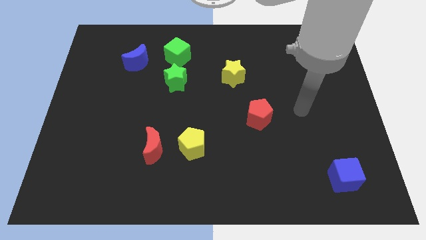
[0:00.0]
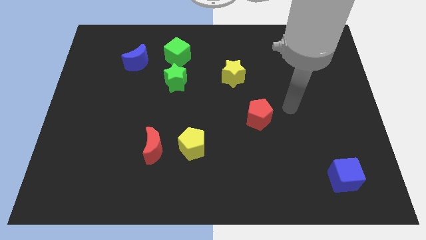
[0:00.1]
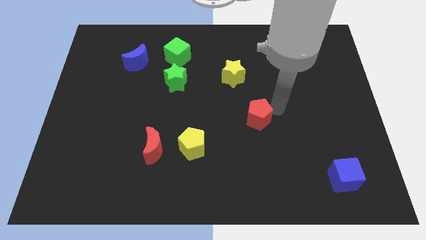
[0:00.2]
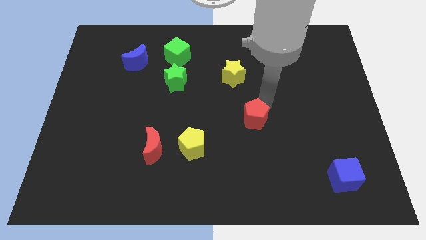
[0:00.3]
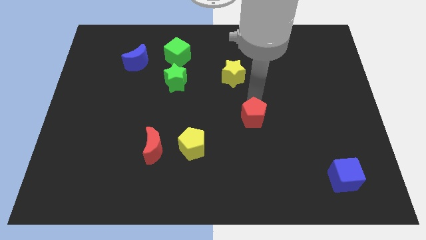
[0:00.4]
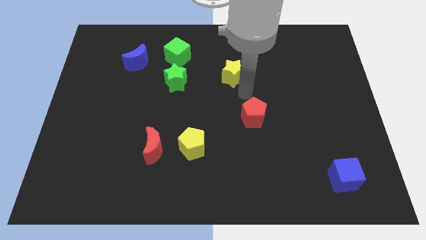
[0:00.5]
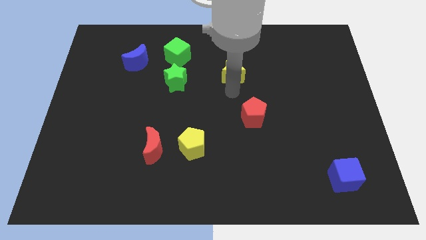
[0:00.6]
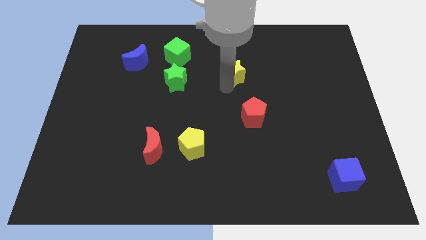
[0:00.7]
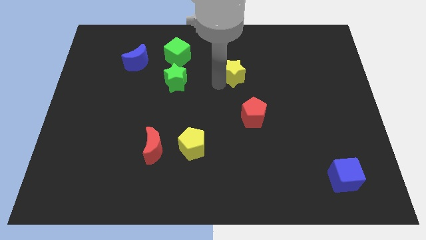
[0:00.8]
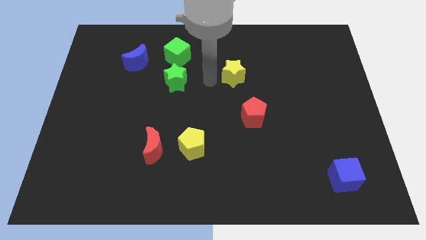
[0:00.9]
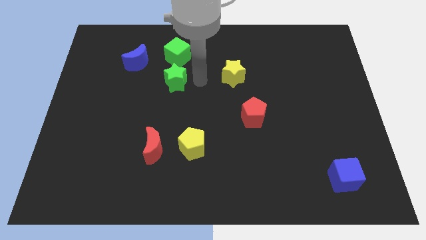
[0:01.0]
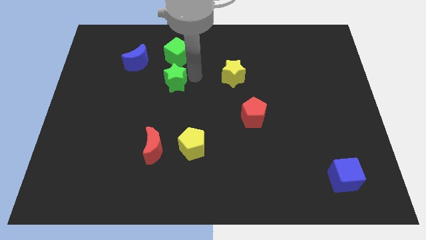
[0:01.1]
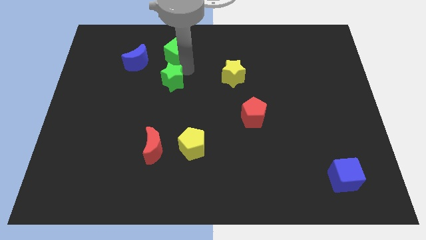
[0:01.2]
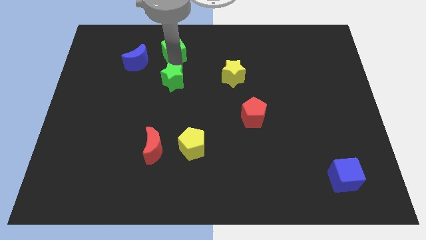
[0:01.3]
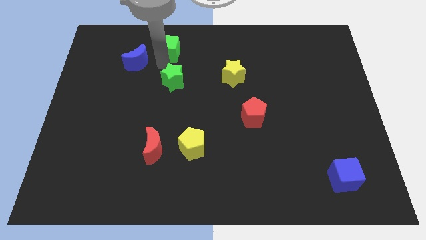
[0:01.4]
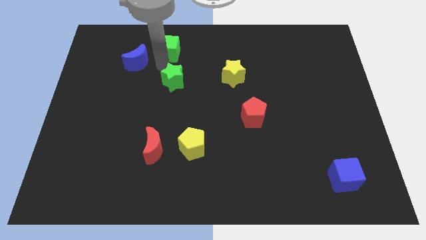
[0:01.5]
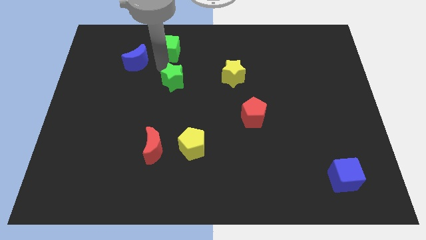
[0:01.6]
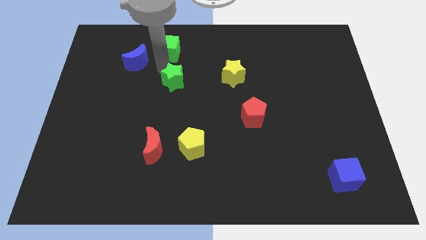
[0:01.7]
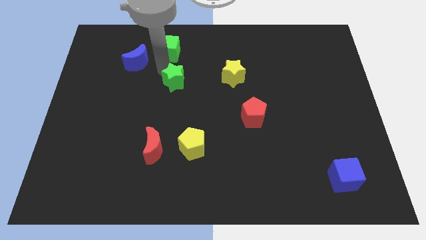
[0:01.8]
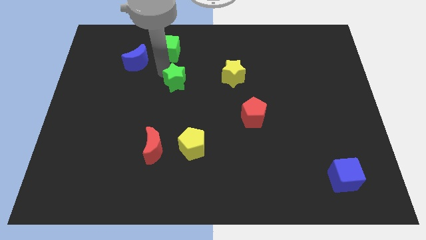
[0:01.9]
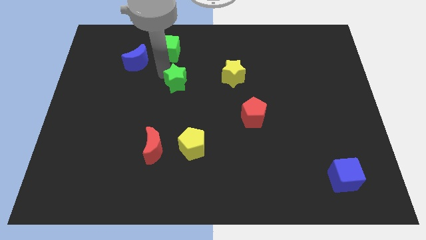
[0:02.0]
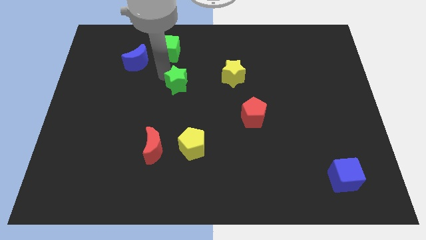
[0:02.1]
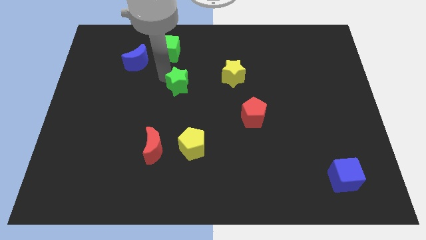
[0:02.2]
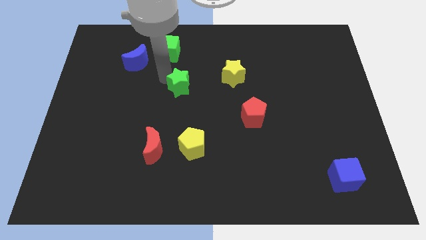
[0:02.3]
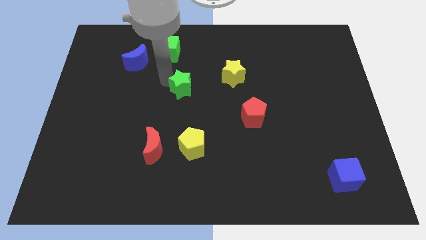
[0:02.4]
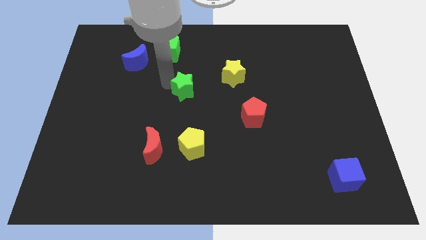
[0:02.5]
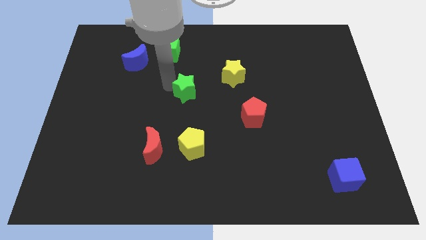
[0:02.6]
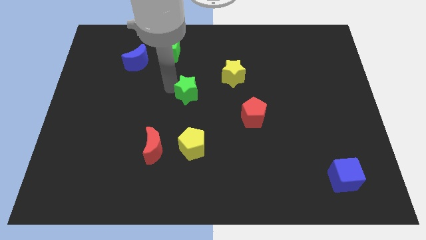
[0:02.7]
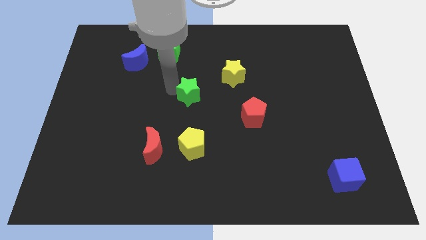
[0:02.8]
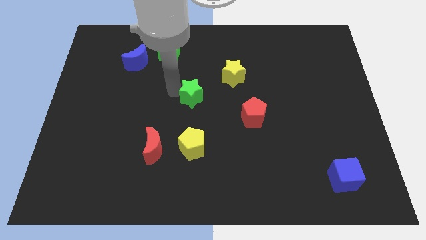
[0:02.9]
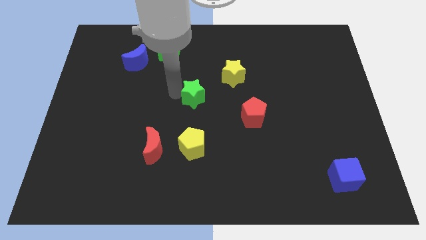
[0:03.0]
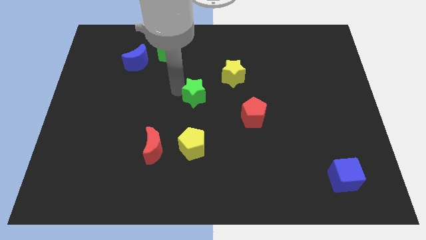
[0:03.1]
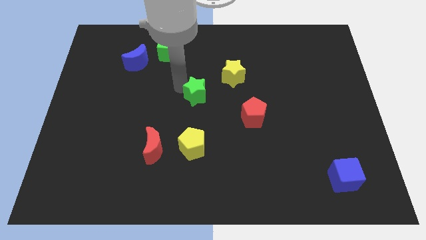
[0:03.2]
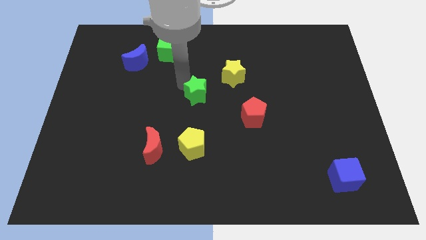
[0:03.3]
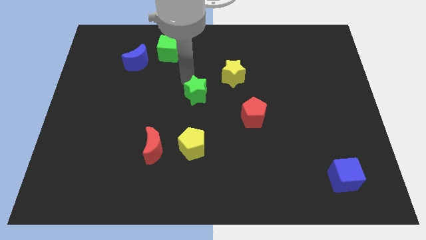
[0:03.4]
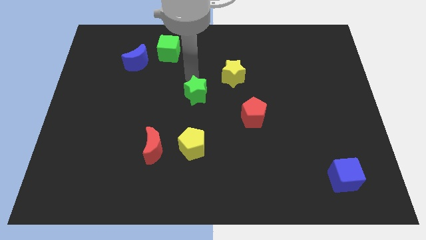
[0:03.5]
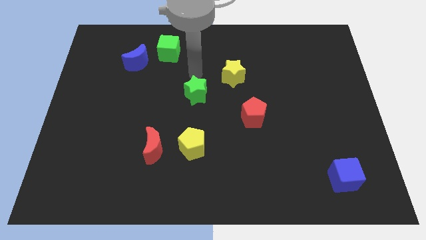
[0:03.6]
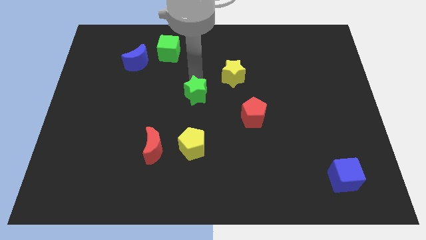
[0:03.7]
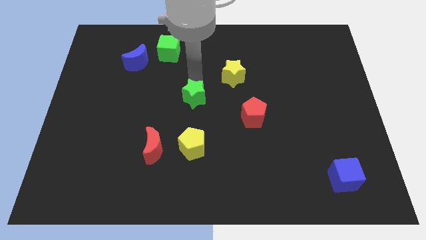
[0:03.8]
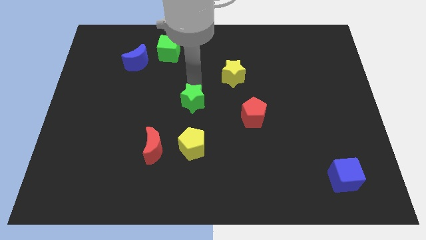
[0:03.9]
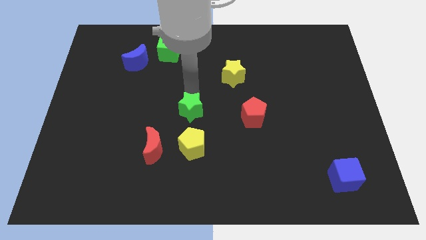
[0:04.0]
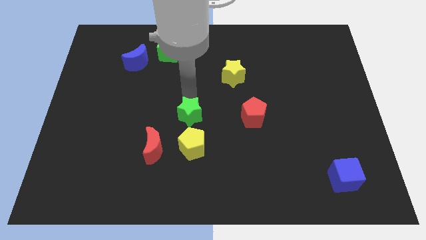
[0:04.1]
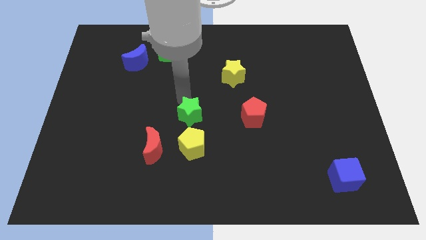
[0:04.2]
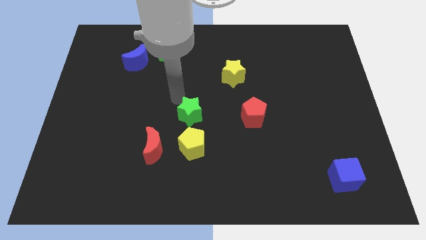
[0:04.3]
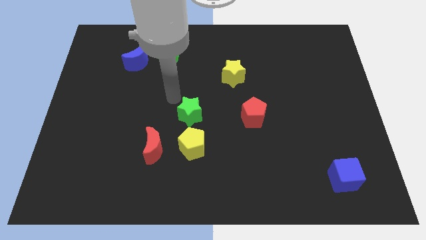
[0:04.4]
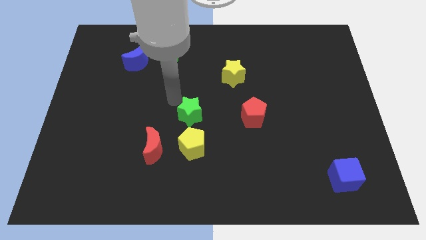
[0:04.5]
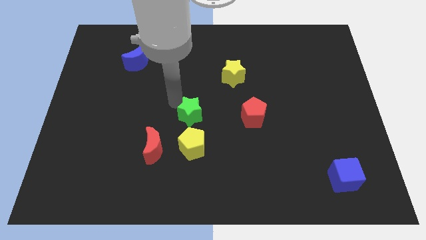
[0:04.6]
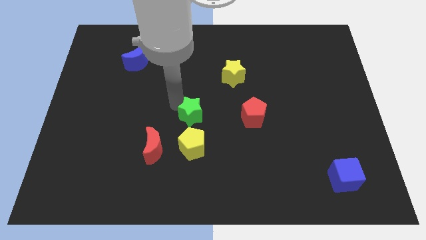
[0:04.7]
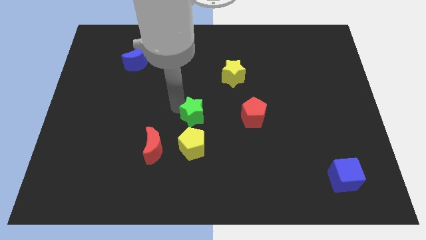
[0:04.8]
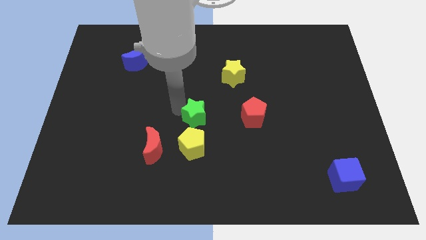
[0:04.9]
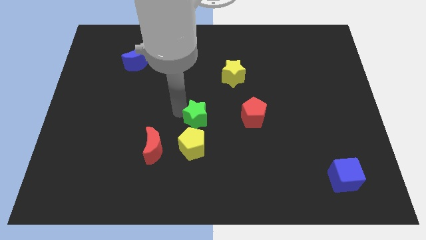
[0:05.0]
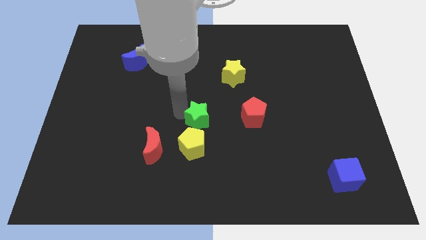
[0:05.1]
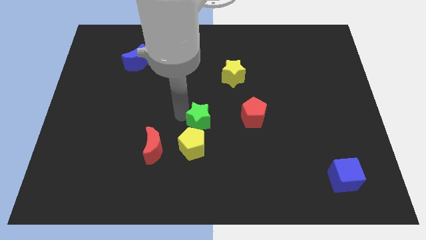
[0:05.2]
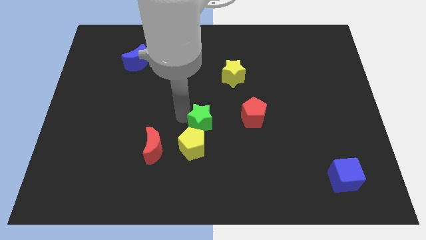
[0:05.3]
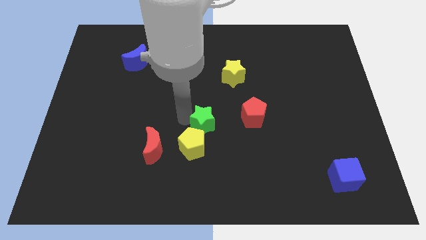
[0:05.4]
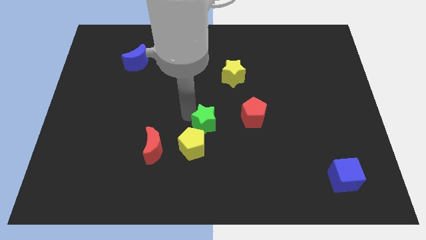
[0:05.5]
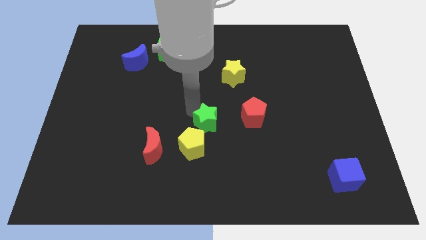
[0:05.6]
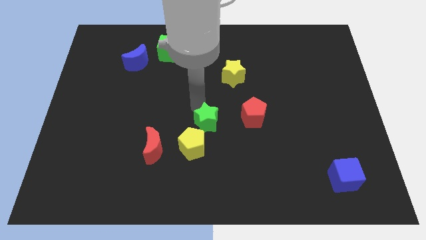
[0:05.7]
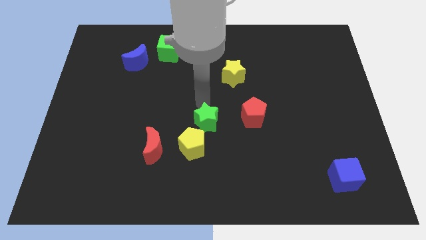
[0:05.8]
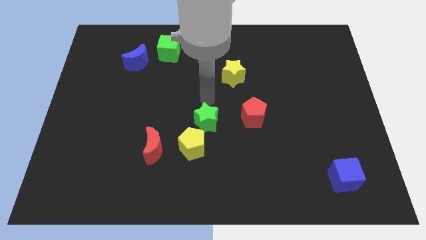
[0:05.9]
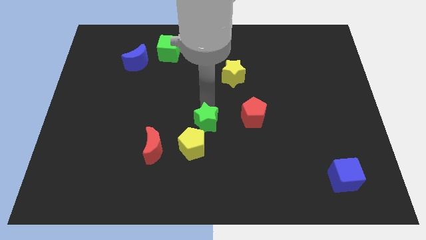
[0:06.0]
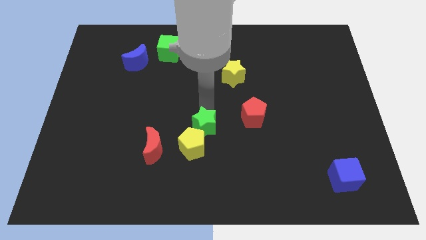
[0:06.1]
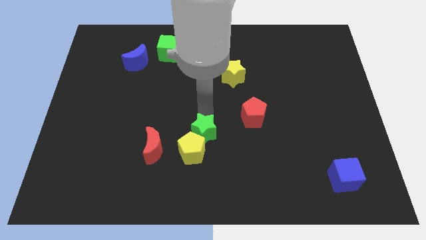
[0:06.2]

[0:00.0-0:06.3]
move the green star to the right of the red moon

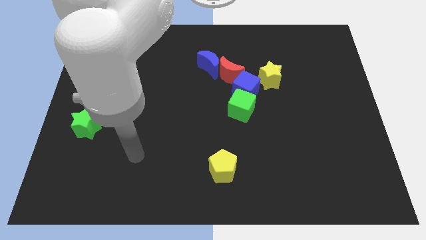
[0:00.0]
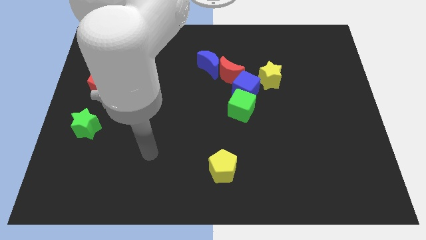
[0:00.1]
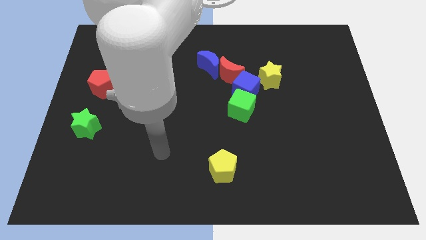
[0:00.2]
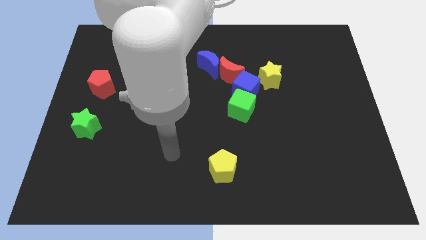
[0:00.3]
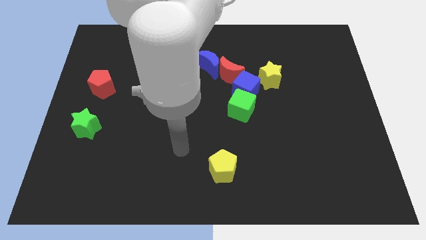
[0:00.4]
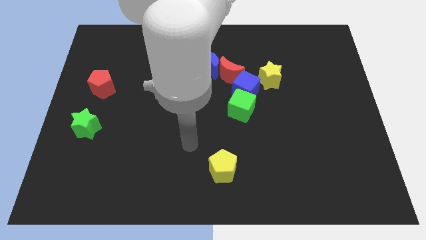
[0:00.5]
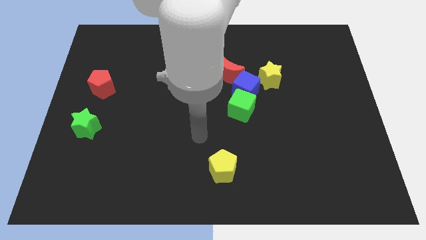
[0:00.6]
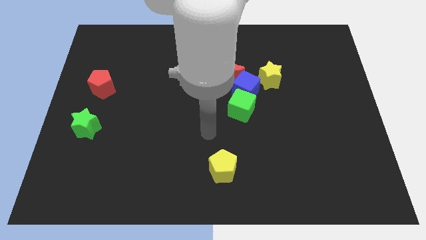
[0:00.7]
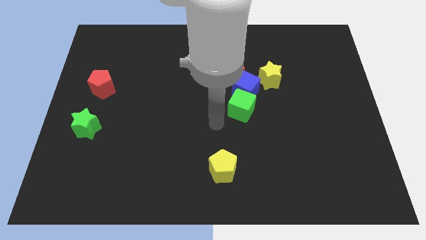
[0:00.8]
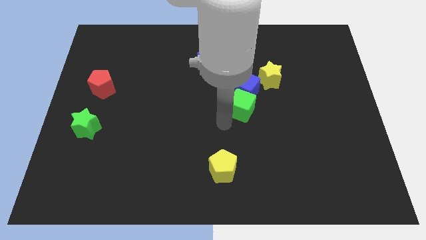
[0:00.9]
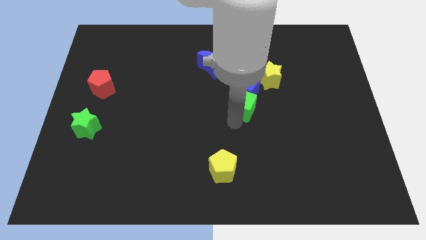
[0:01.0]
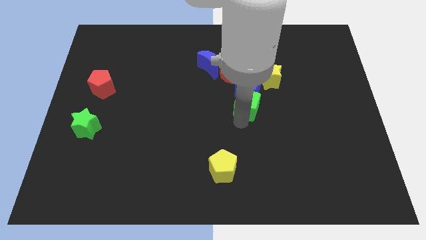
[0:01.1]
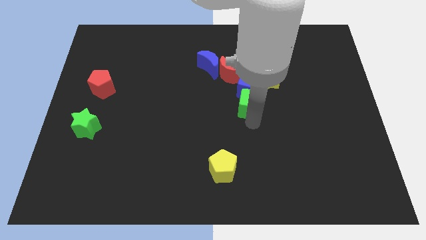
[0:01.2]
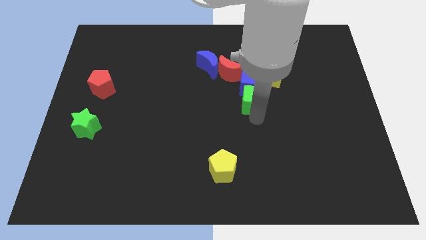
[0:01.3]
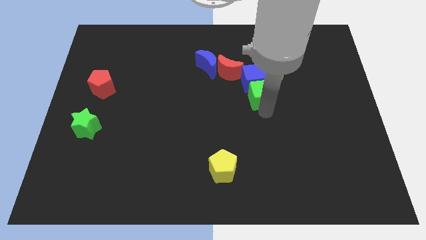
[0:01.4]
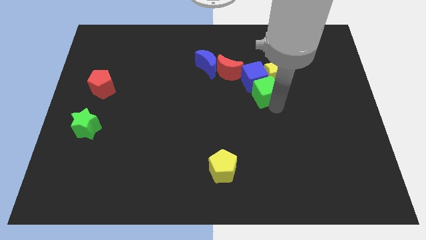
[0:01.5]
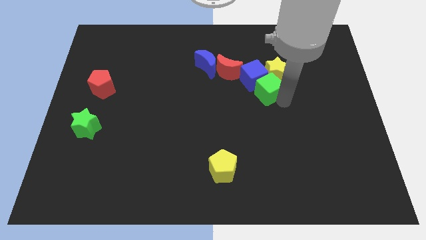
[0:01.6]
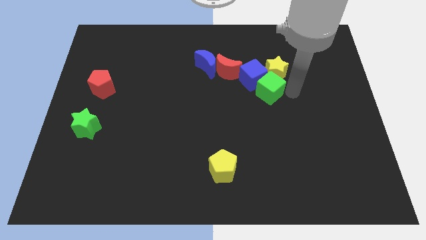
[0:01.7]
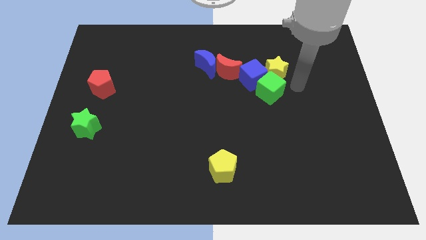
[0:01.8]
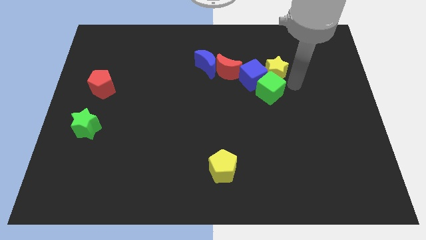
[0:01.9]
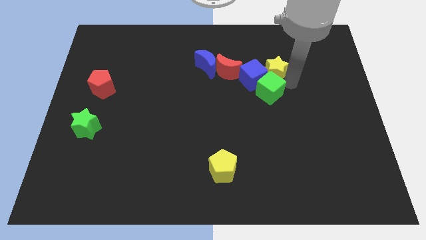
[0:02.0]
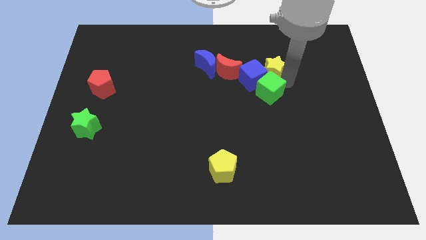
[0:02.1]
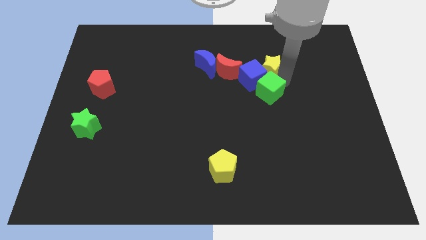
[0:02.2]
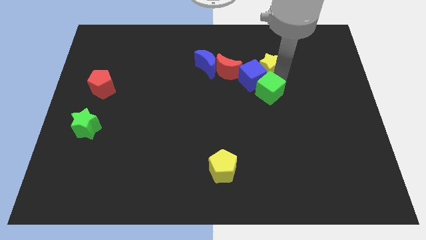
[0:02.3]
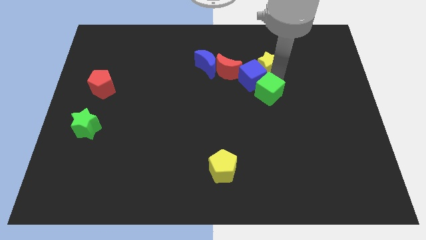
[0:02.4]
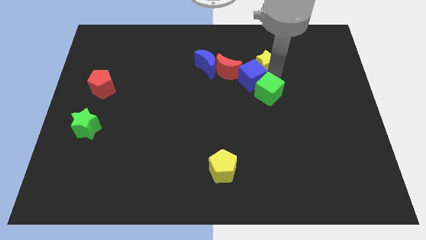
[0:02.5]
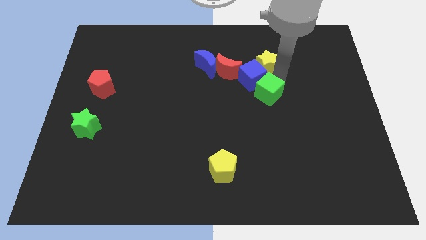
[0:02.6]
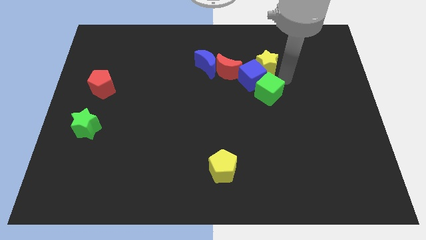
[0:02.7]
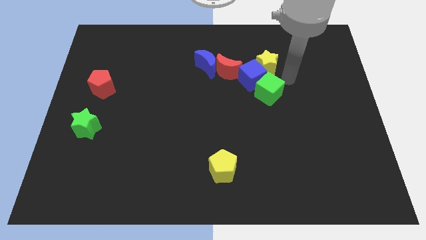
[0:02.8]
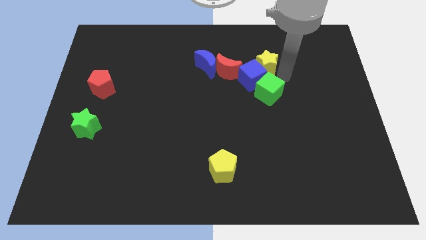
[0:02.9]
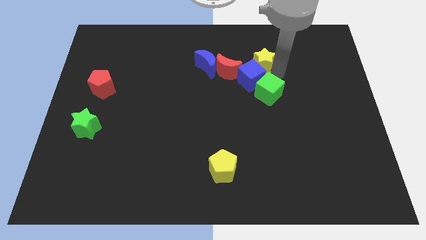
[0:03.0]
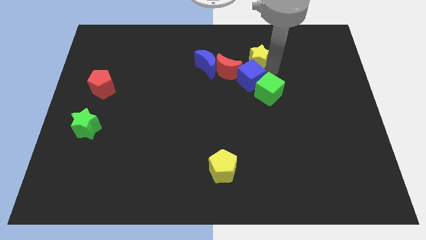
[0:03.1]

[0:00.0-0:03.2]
put the yellow star to the top right side of the red moon
